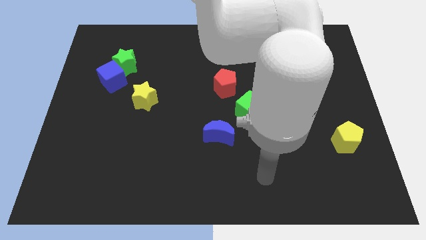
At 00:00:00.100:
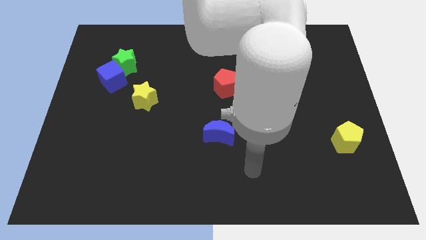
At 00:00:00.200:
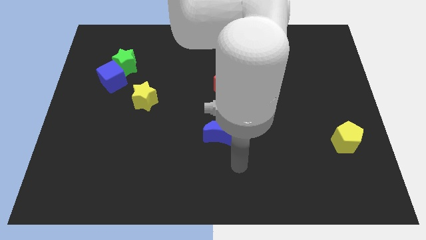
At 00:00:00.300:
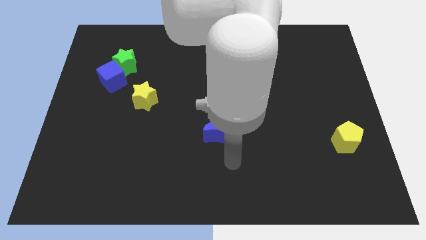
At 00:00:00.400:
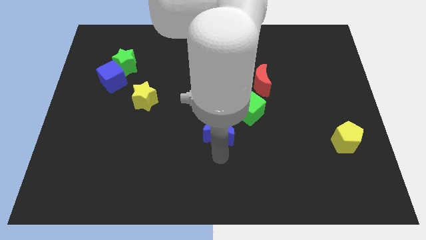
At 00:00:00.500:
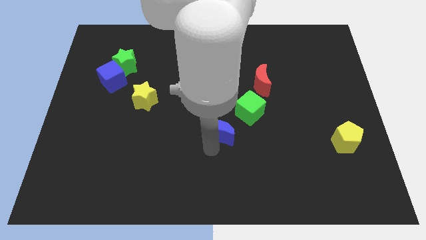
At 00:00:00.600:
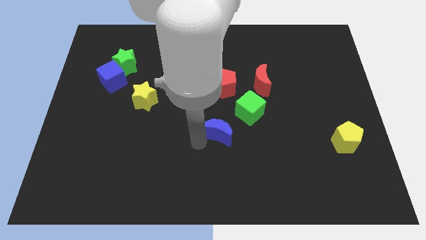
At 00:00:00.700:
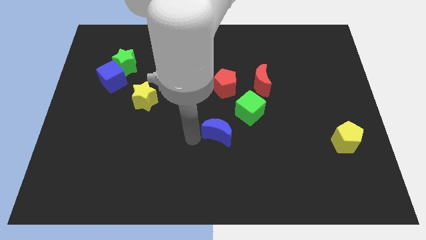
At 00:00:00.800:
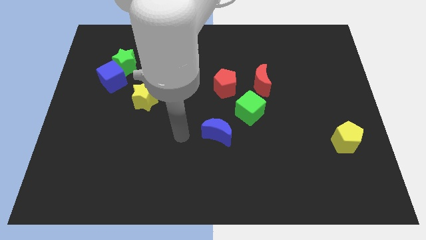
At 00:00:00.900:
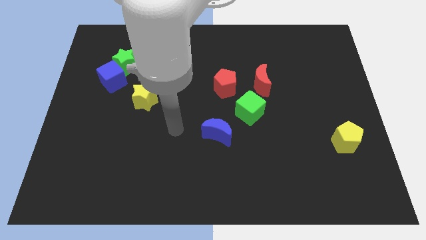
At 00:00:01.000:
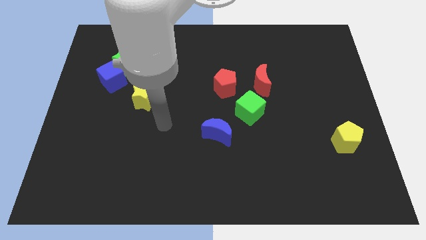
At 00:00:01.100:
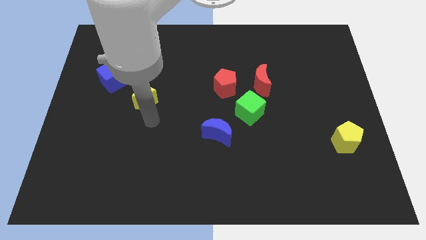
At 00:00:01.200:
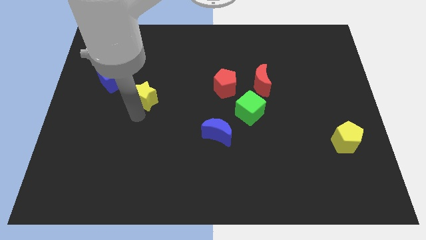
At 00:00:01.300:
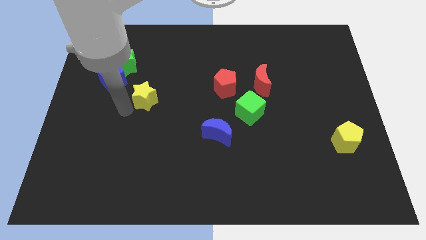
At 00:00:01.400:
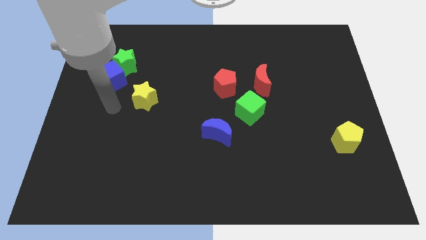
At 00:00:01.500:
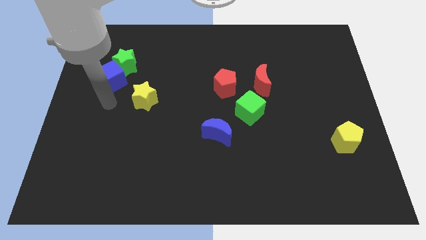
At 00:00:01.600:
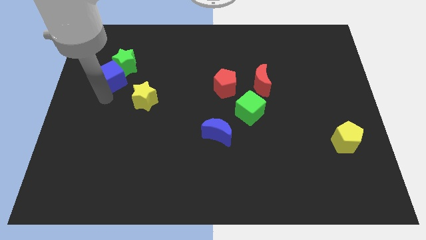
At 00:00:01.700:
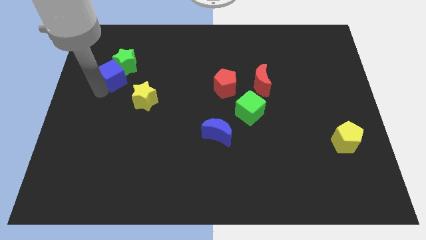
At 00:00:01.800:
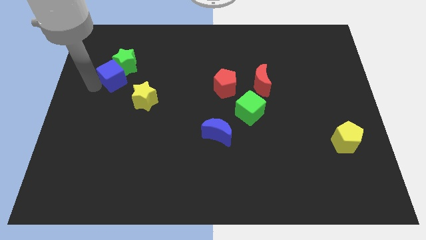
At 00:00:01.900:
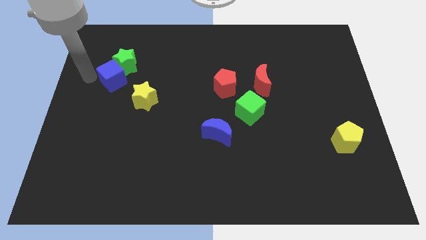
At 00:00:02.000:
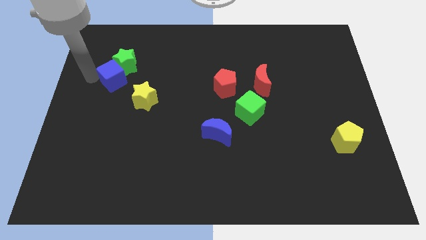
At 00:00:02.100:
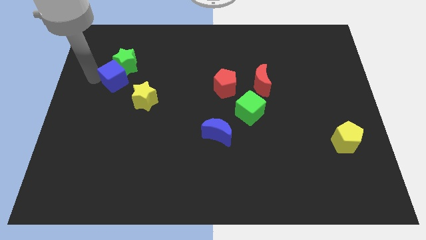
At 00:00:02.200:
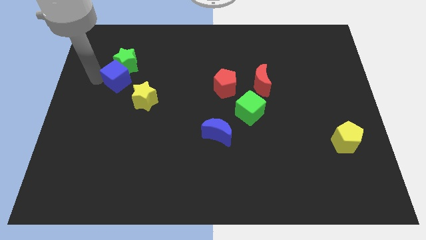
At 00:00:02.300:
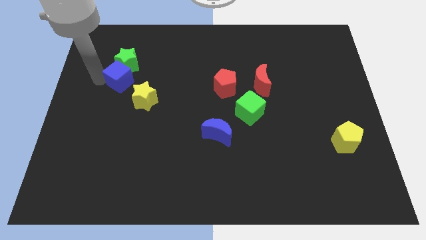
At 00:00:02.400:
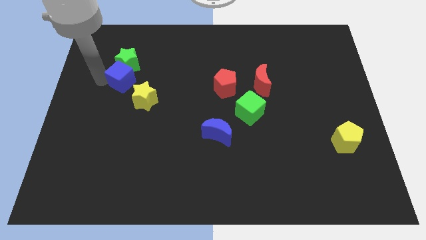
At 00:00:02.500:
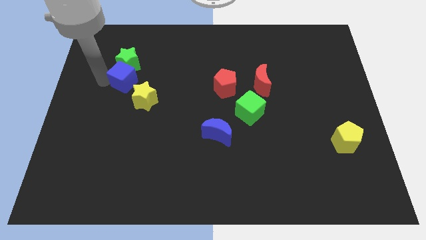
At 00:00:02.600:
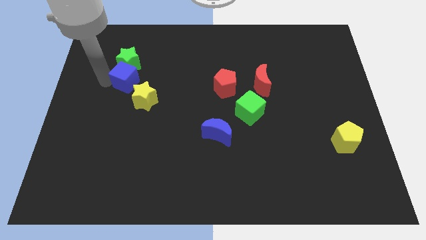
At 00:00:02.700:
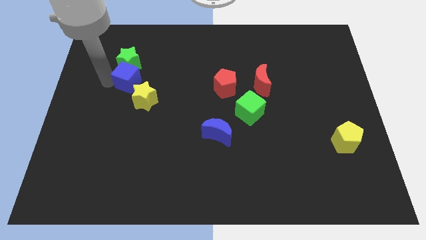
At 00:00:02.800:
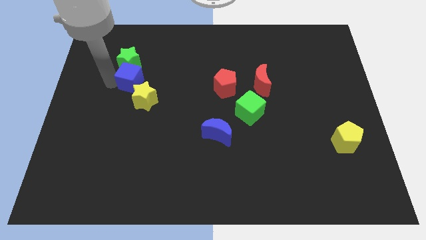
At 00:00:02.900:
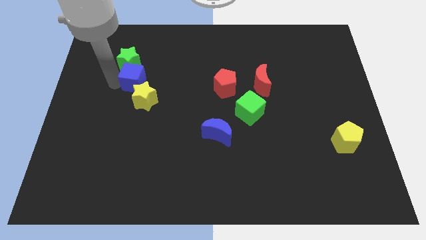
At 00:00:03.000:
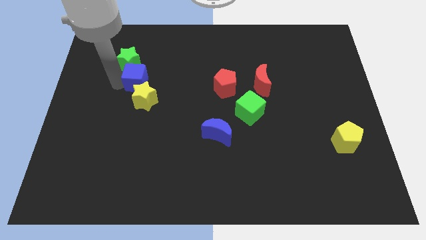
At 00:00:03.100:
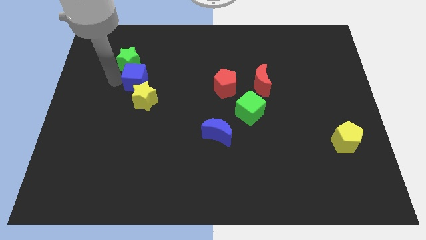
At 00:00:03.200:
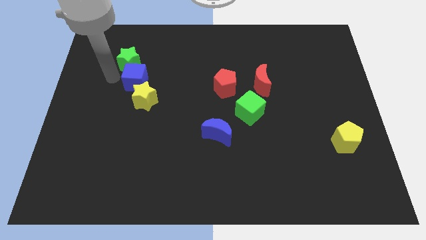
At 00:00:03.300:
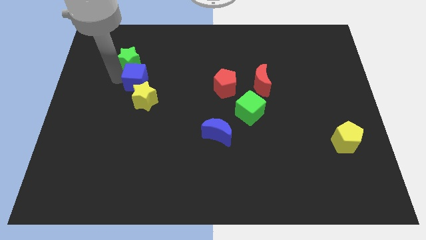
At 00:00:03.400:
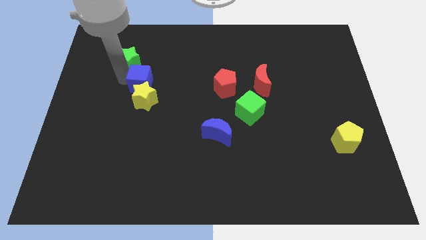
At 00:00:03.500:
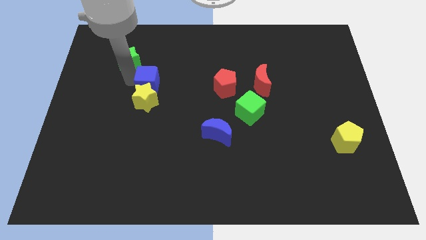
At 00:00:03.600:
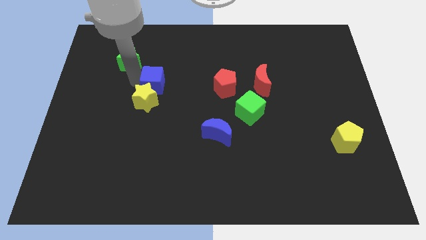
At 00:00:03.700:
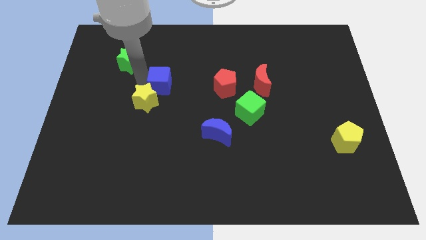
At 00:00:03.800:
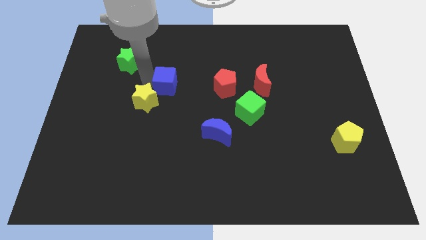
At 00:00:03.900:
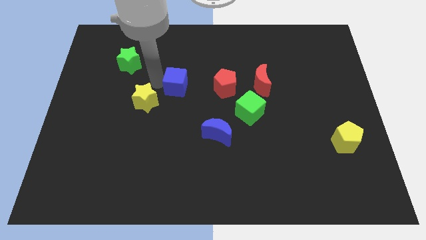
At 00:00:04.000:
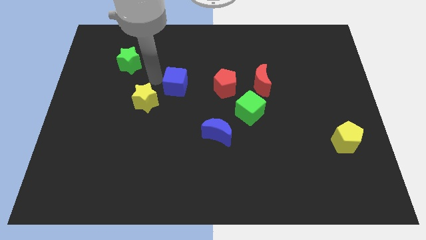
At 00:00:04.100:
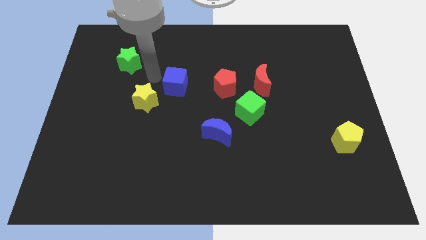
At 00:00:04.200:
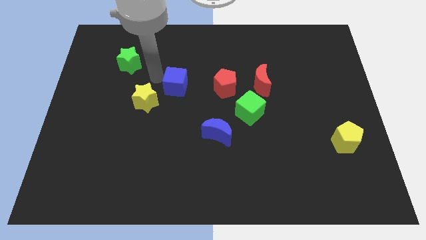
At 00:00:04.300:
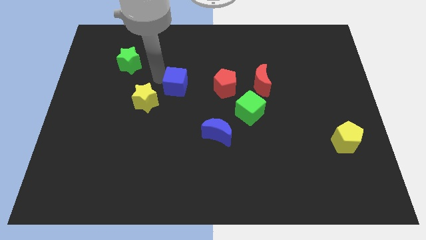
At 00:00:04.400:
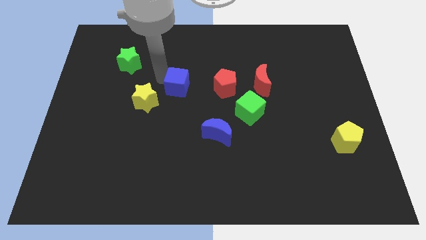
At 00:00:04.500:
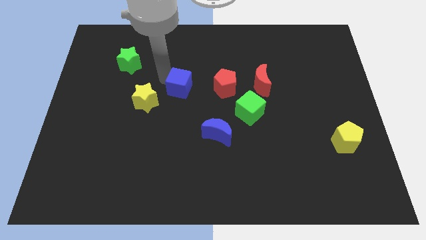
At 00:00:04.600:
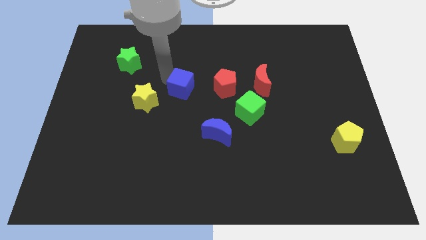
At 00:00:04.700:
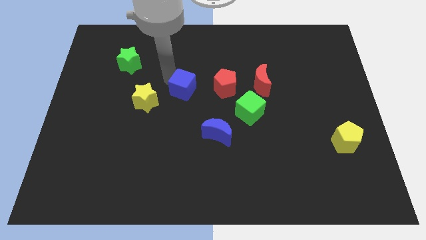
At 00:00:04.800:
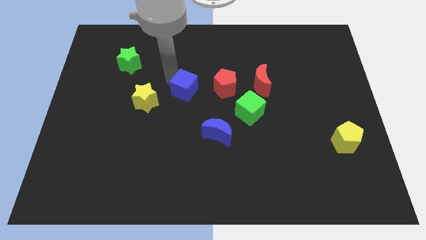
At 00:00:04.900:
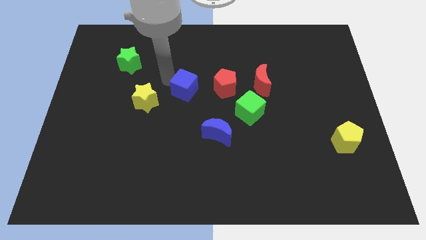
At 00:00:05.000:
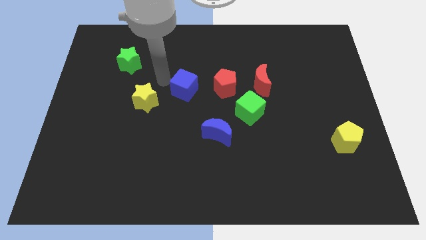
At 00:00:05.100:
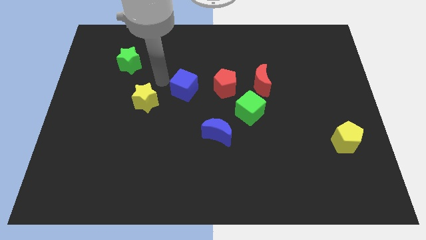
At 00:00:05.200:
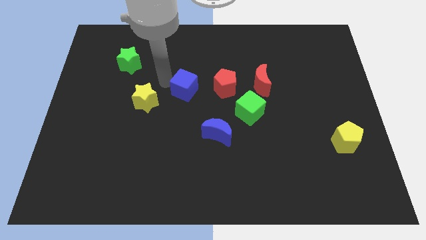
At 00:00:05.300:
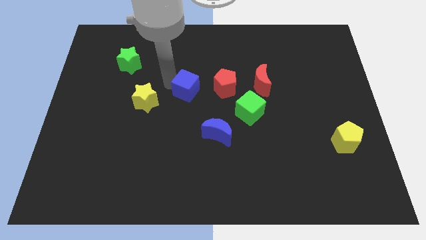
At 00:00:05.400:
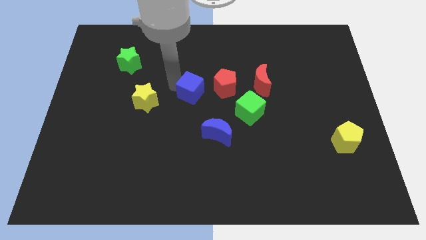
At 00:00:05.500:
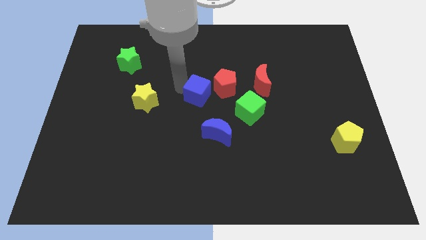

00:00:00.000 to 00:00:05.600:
push the blue cube above the blue moon

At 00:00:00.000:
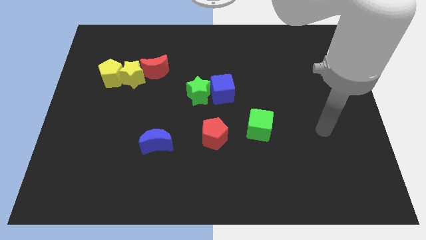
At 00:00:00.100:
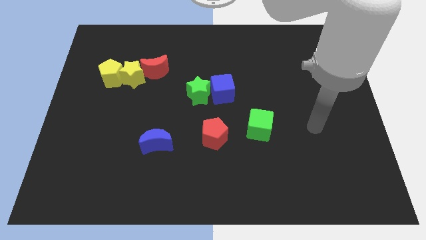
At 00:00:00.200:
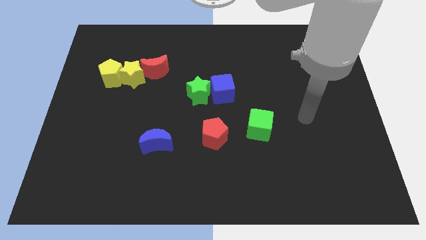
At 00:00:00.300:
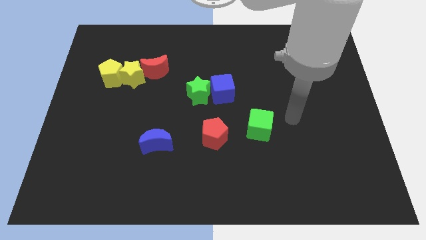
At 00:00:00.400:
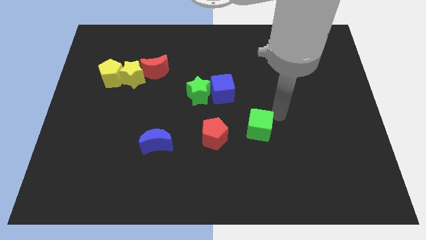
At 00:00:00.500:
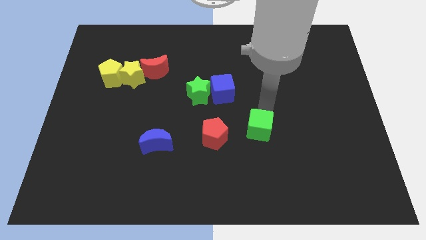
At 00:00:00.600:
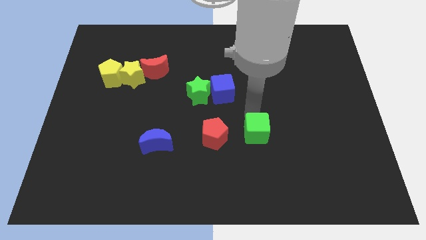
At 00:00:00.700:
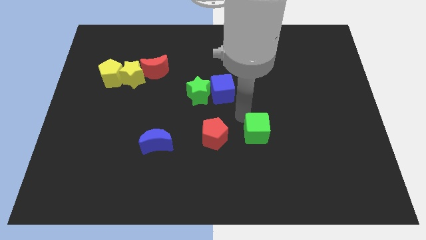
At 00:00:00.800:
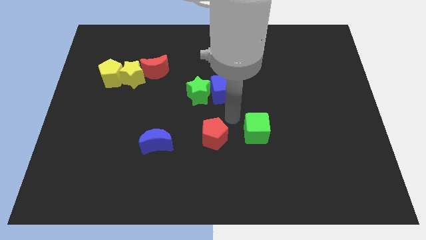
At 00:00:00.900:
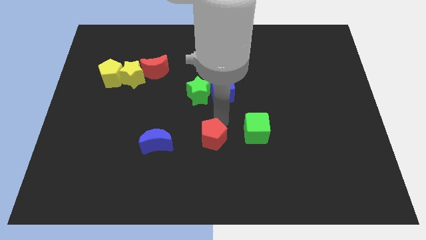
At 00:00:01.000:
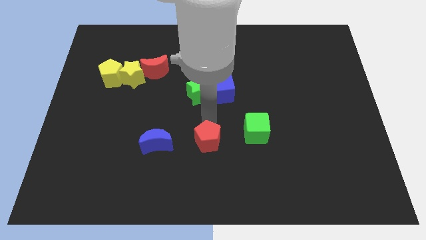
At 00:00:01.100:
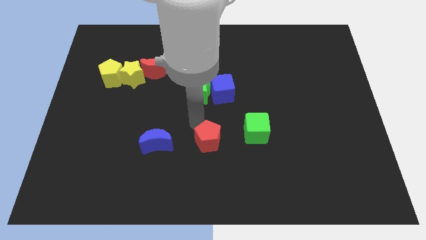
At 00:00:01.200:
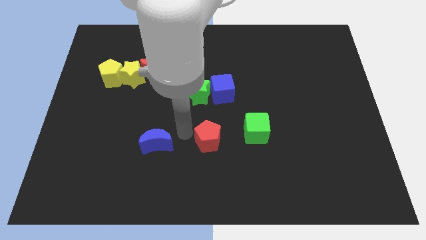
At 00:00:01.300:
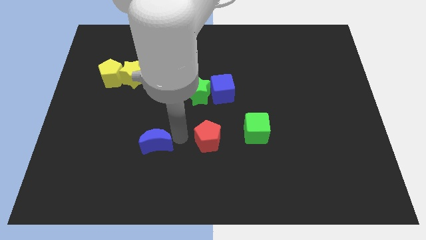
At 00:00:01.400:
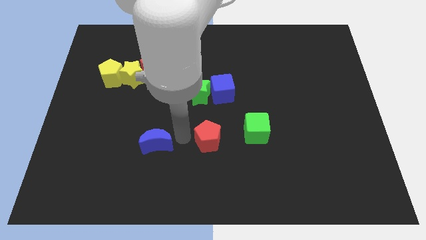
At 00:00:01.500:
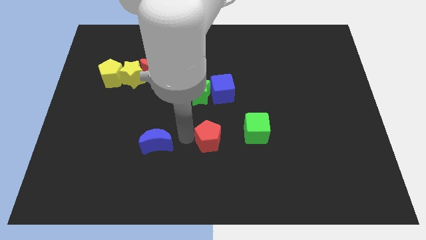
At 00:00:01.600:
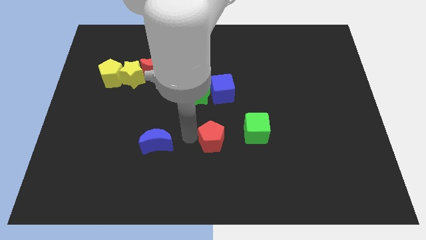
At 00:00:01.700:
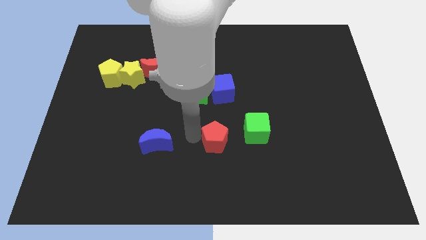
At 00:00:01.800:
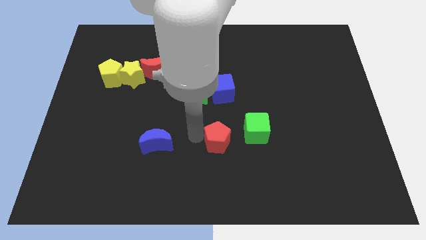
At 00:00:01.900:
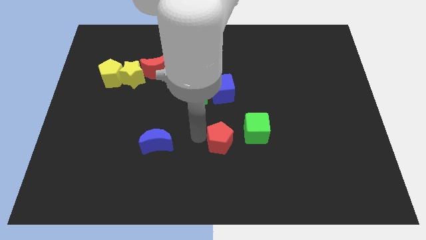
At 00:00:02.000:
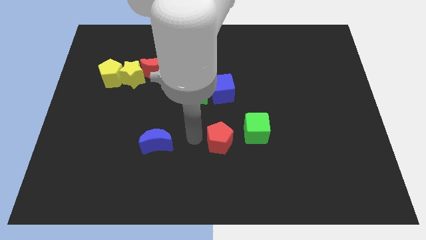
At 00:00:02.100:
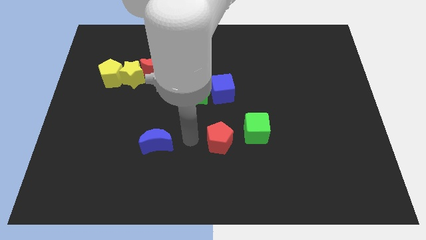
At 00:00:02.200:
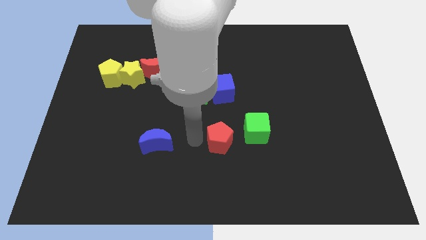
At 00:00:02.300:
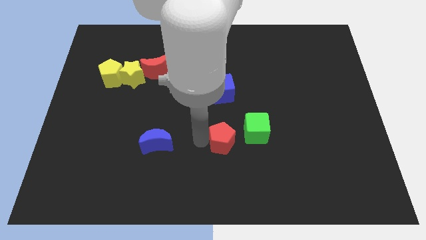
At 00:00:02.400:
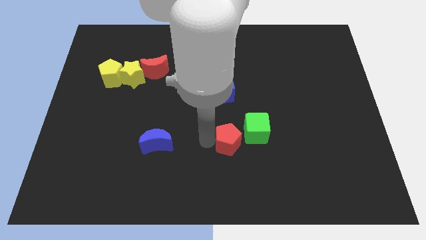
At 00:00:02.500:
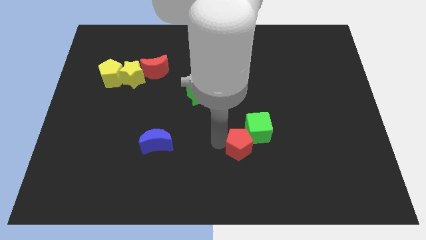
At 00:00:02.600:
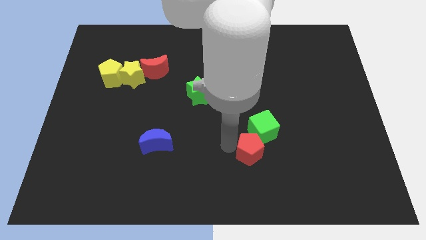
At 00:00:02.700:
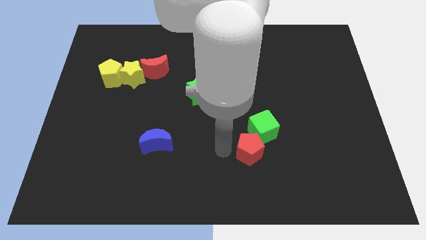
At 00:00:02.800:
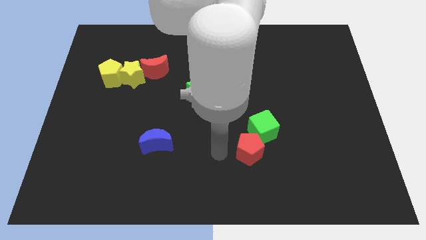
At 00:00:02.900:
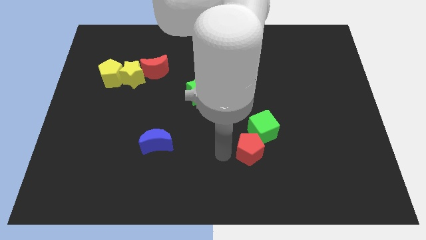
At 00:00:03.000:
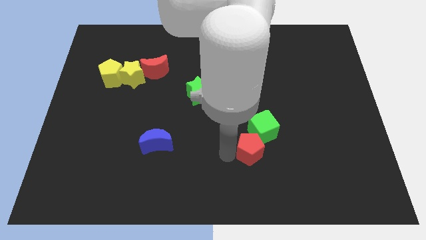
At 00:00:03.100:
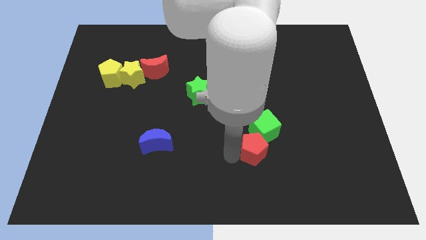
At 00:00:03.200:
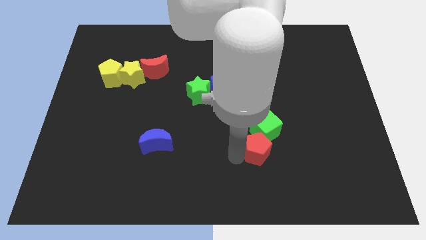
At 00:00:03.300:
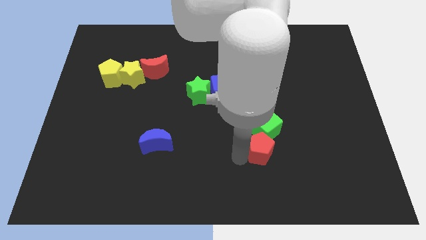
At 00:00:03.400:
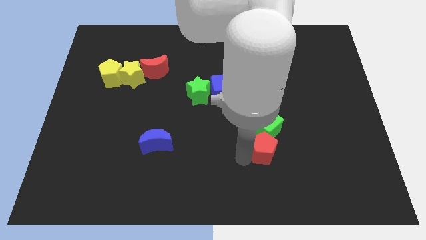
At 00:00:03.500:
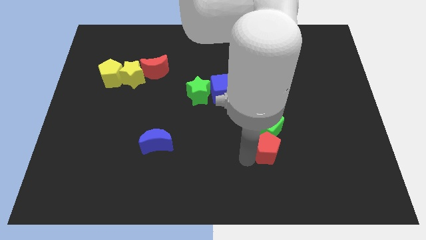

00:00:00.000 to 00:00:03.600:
put the red pentagon to the bottom right of the green cube
